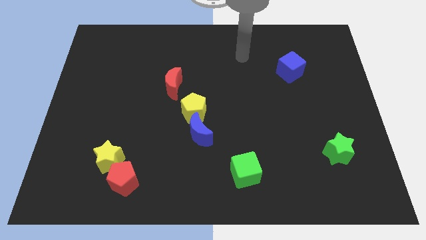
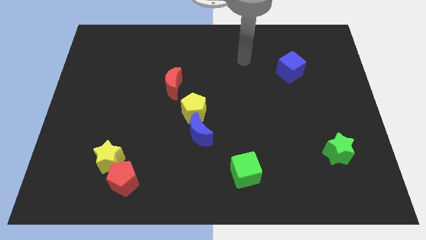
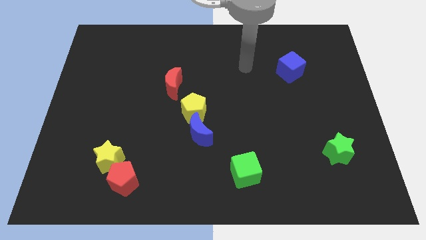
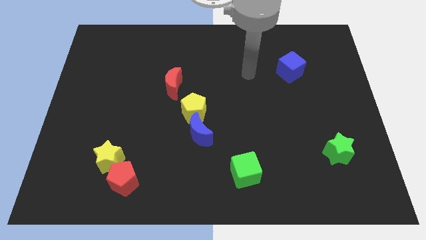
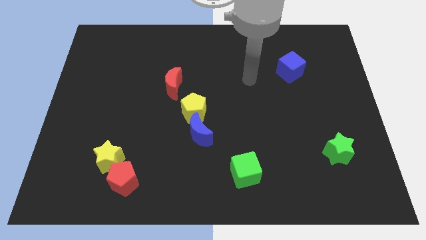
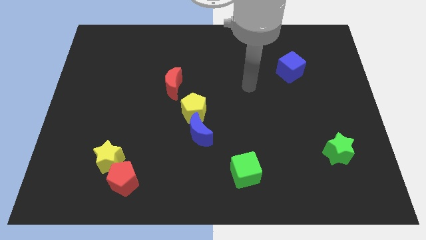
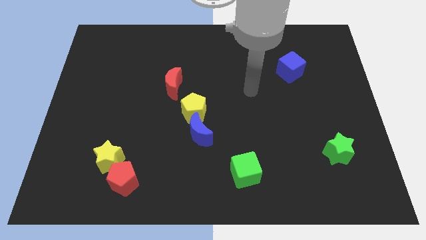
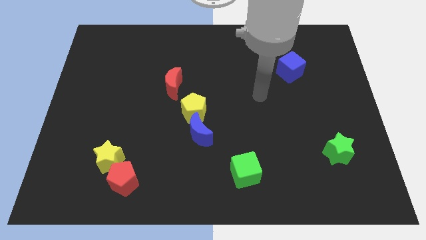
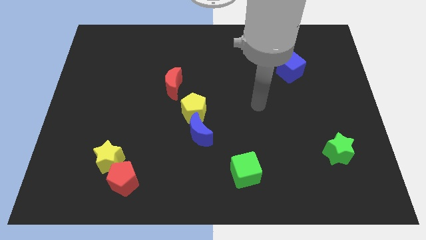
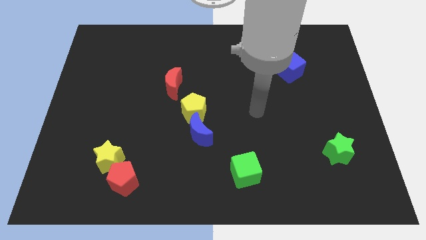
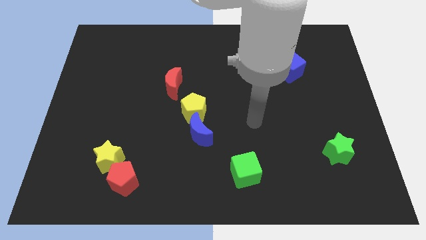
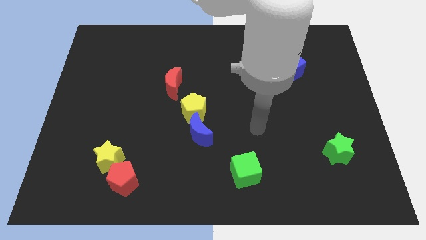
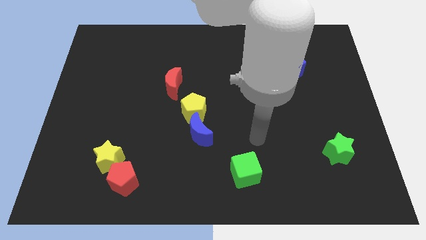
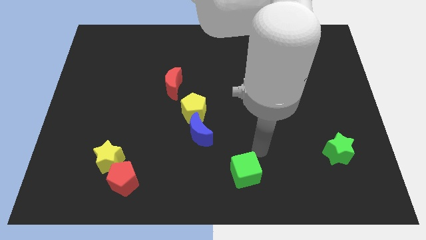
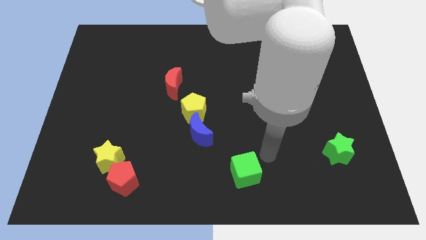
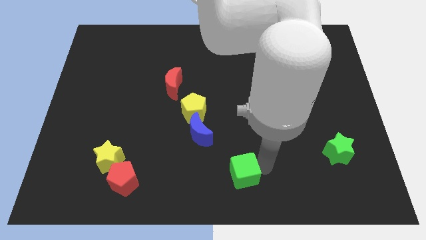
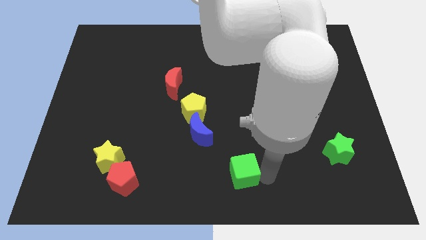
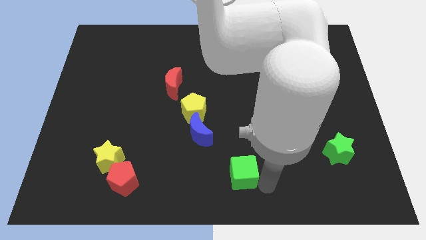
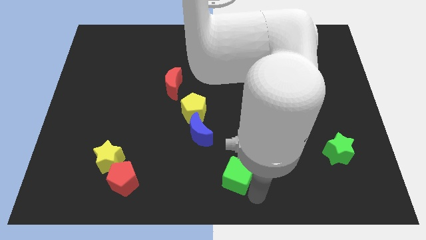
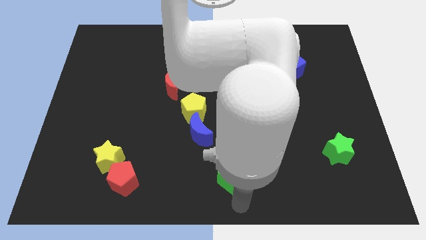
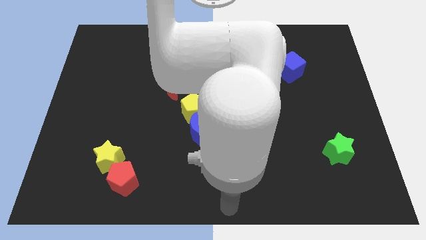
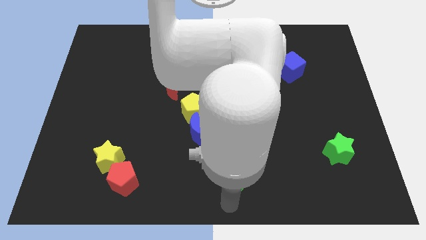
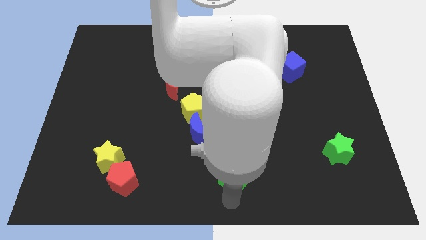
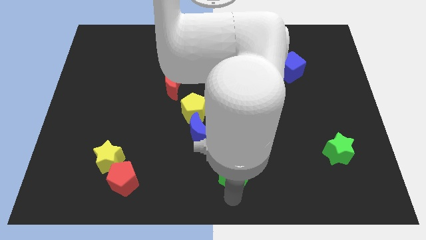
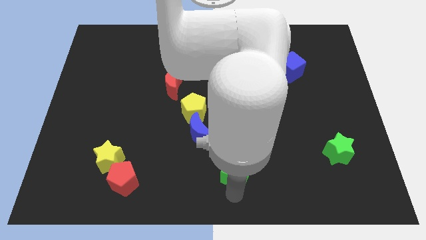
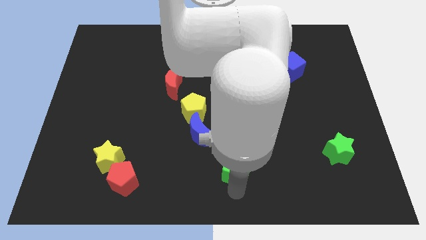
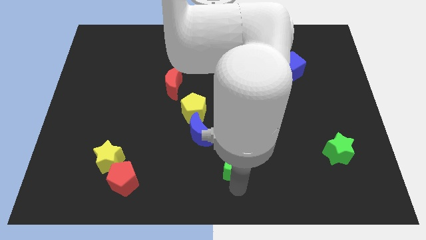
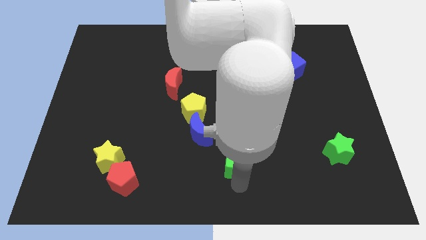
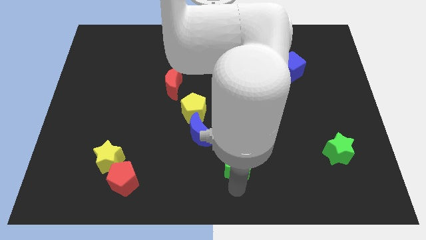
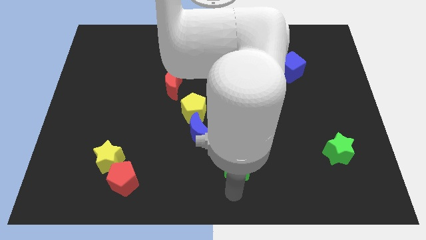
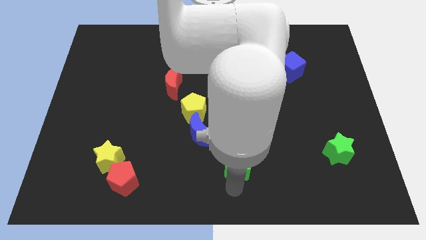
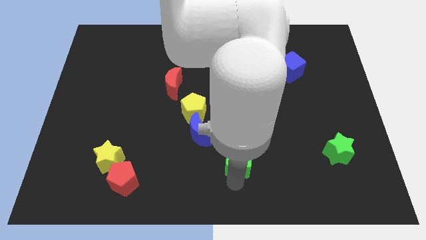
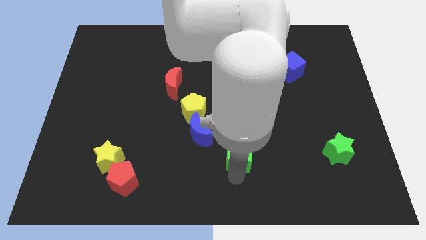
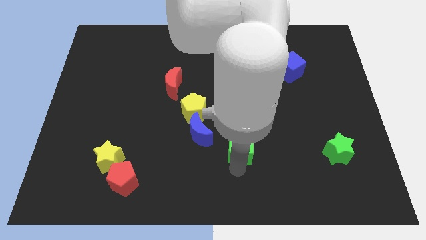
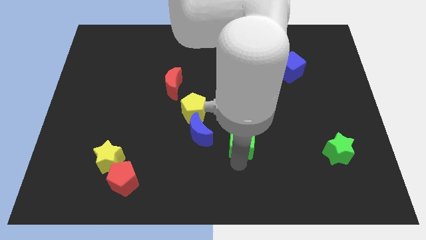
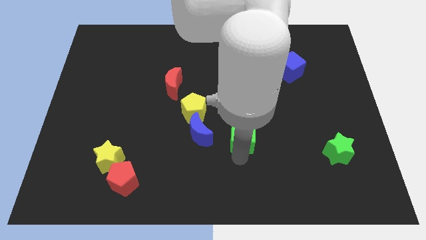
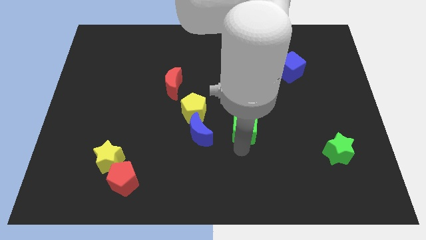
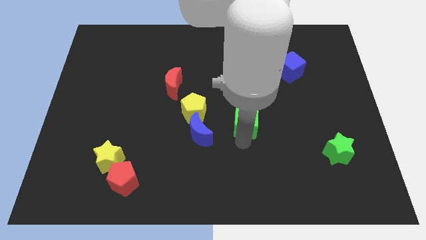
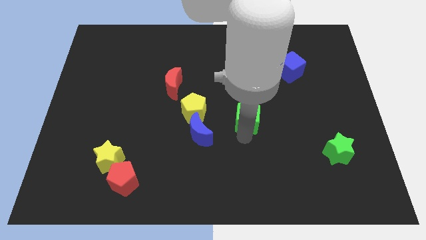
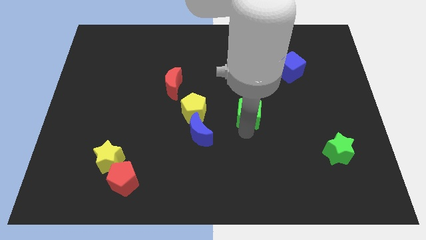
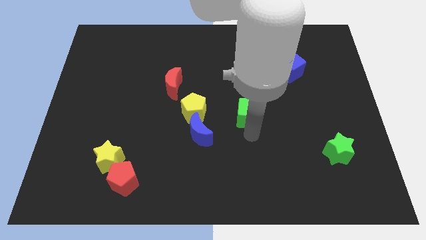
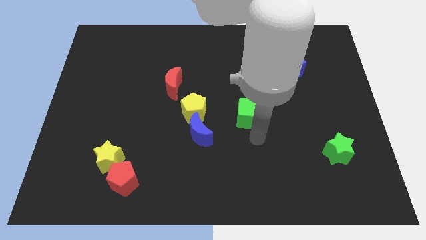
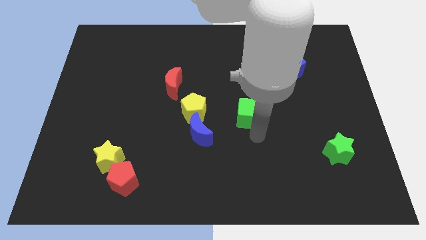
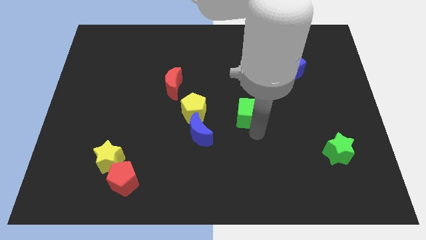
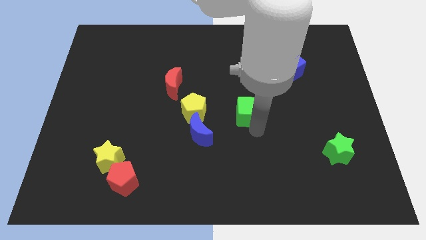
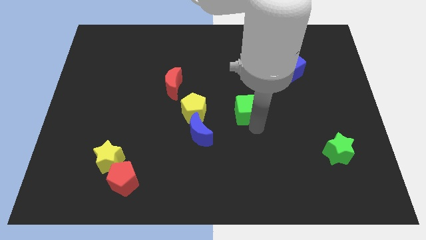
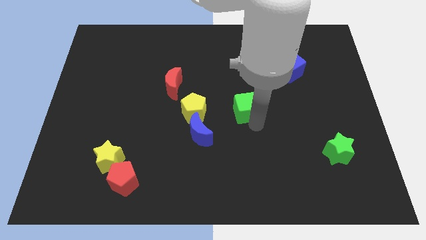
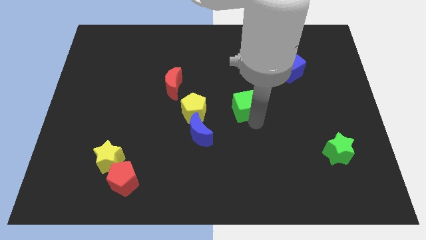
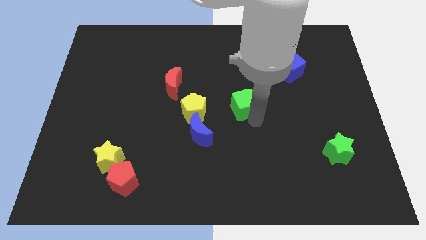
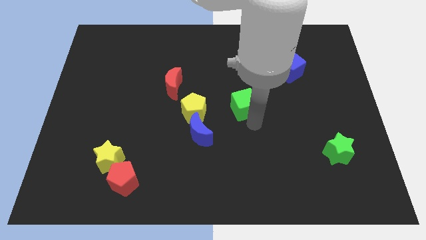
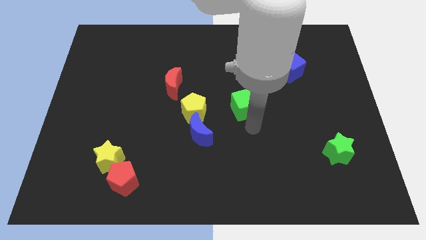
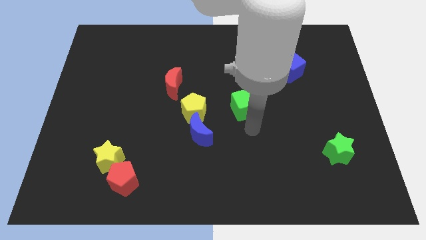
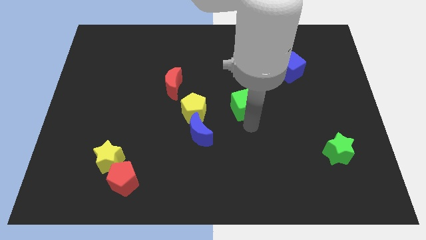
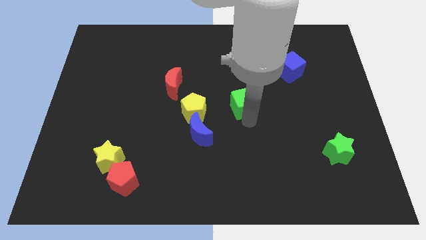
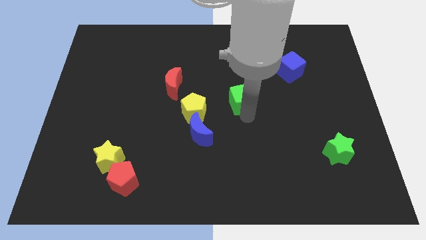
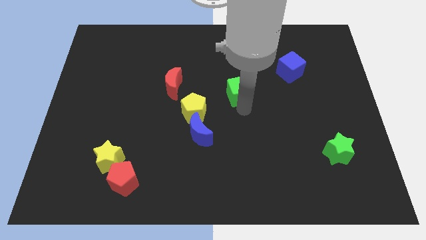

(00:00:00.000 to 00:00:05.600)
move the green cube up

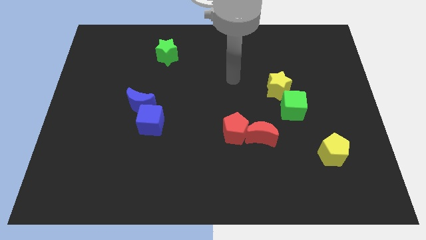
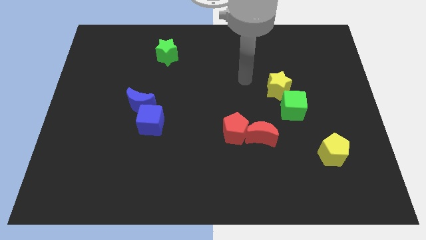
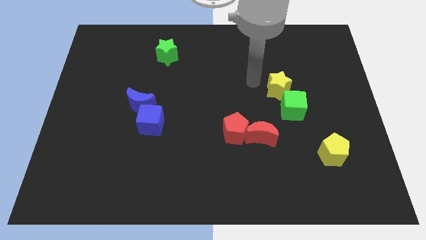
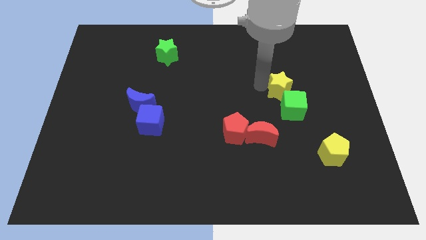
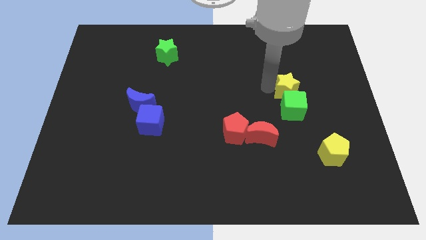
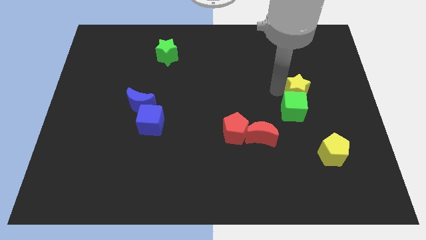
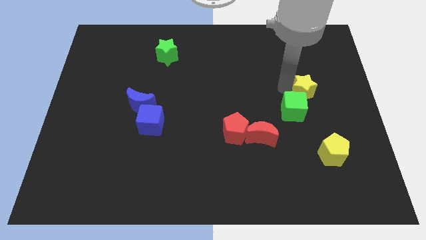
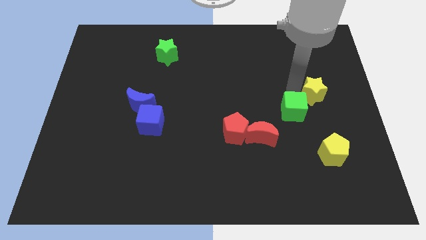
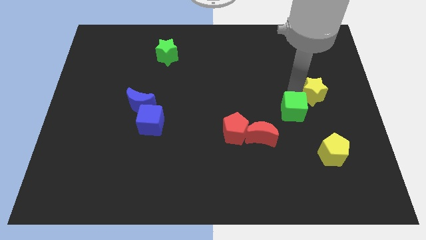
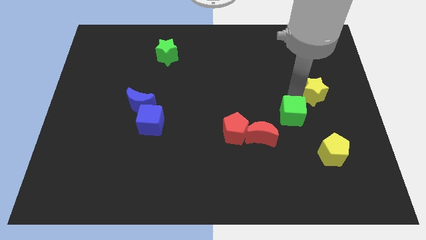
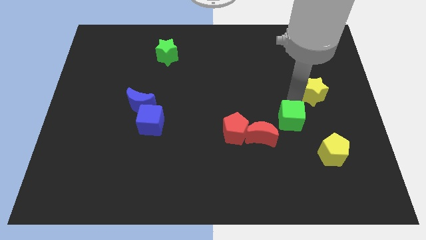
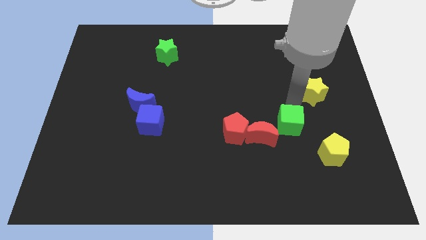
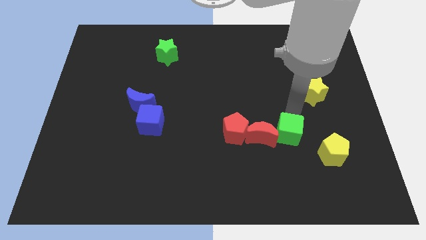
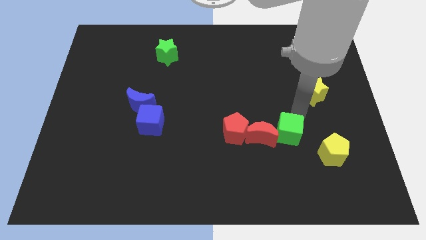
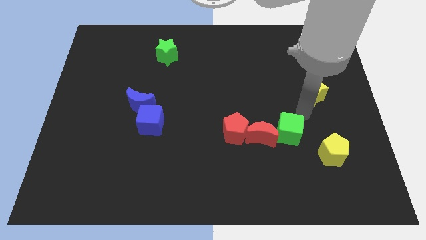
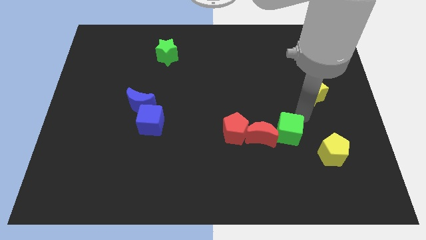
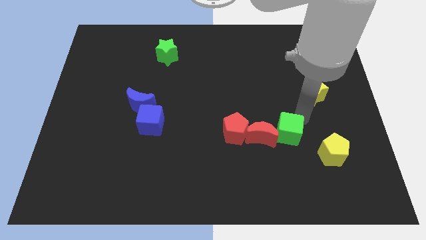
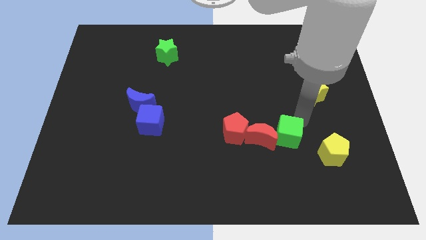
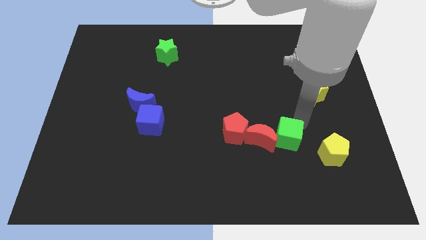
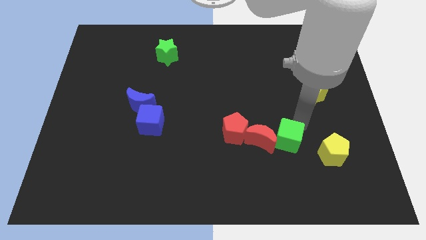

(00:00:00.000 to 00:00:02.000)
slightly move the green cube down and left

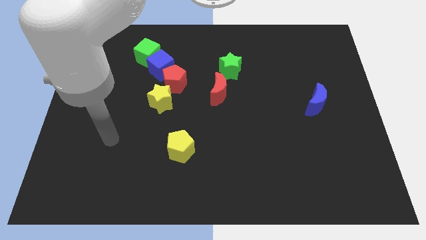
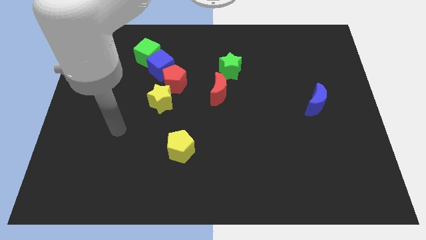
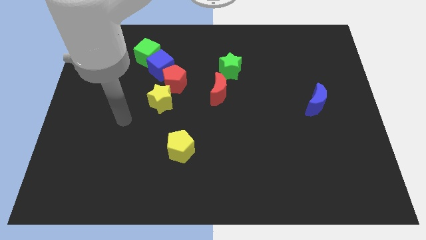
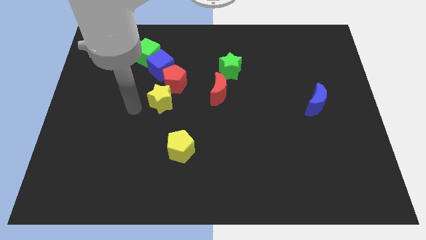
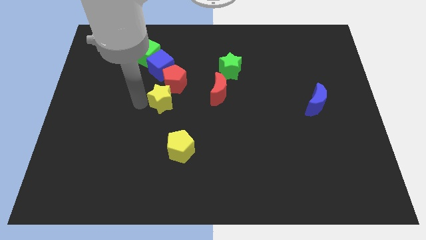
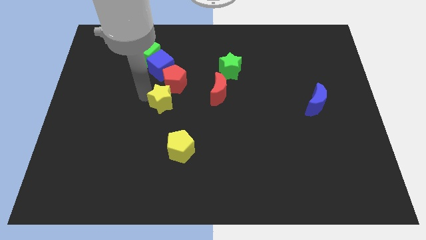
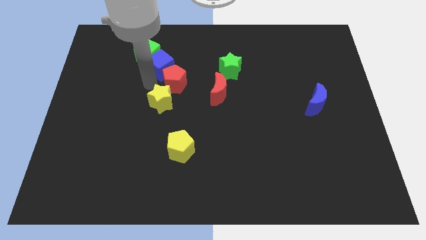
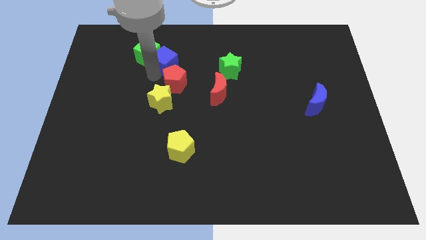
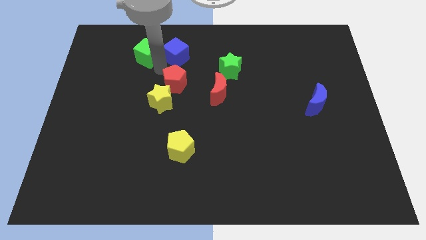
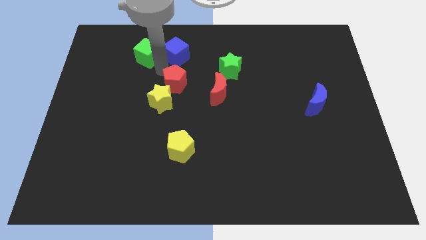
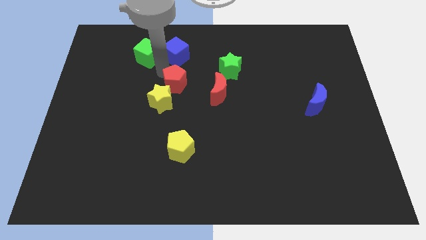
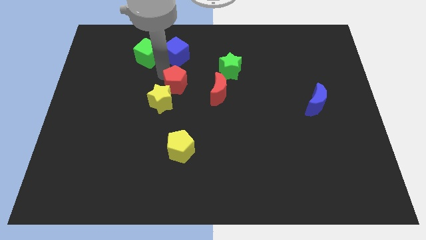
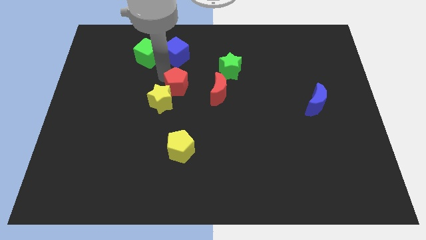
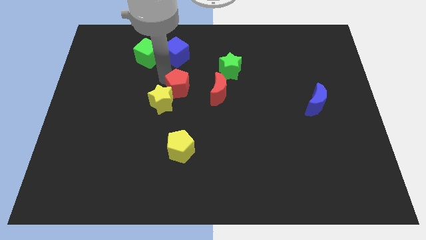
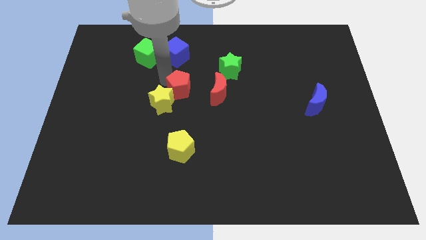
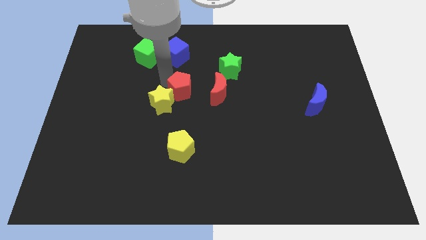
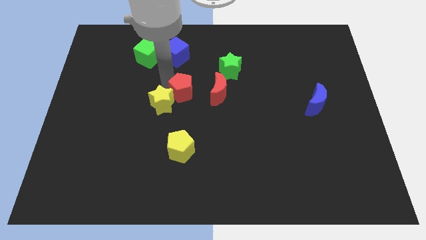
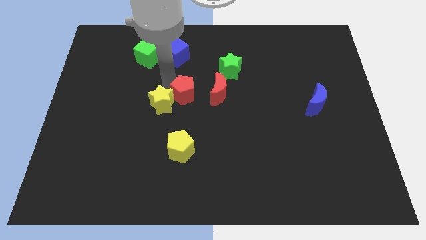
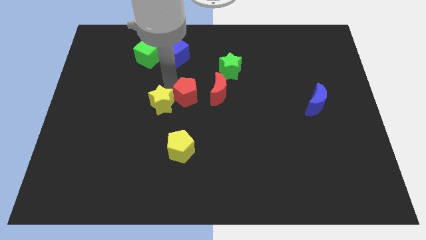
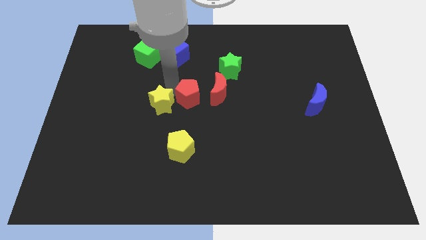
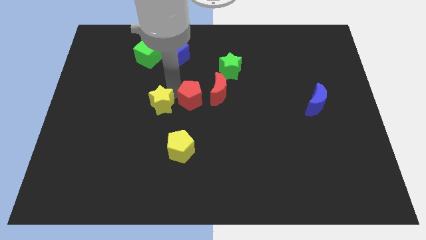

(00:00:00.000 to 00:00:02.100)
move the red pentagon down and to the right somewhat
